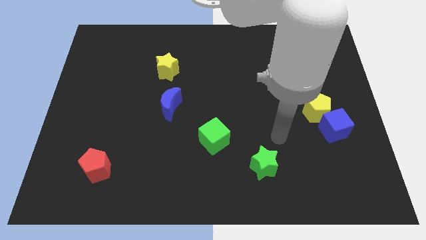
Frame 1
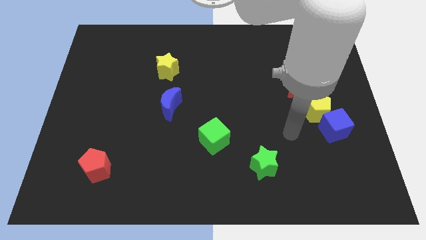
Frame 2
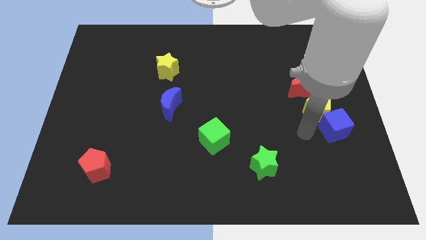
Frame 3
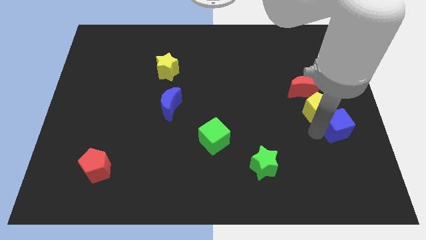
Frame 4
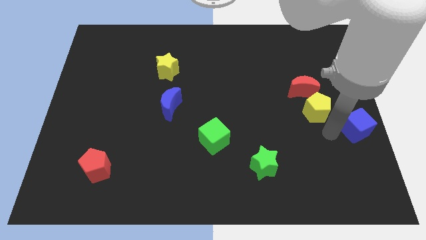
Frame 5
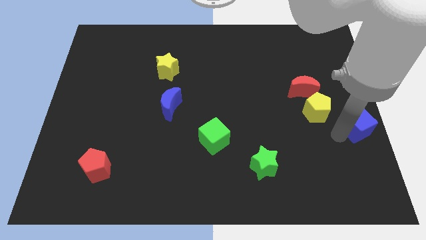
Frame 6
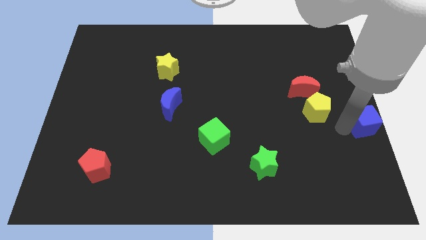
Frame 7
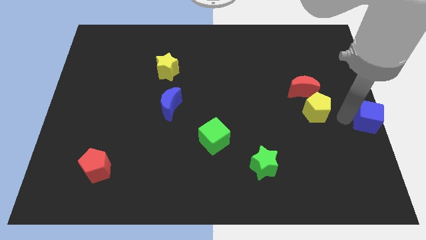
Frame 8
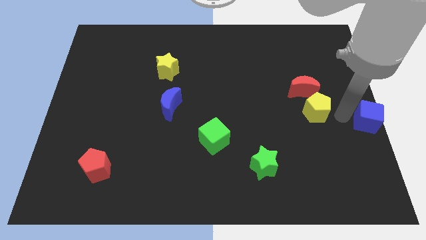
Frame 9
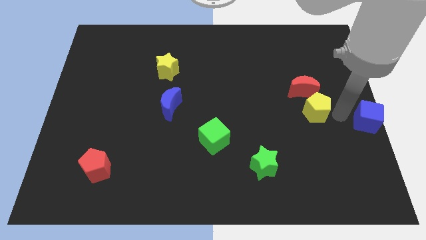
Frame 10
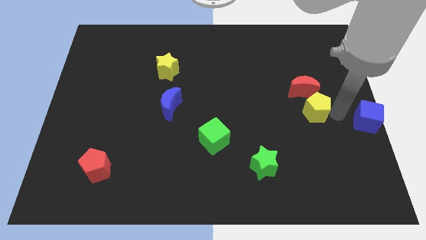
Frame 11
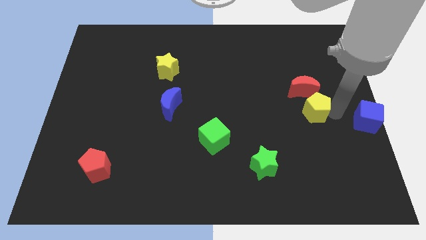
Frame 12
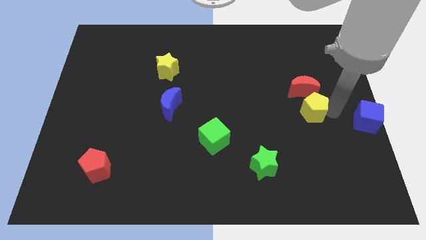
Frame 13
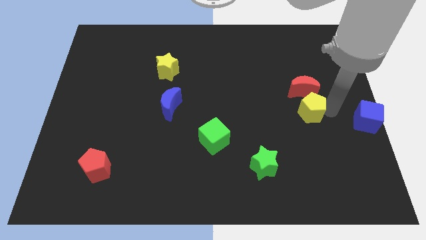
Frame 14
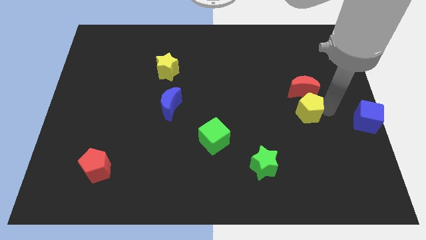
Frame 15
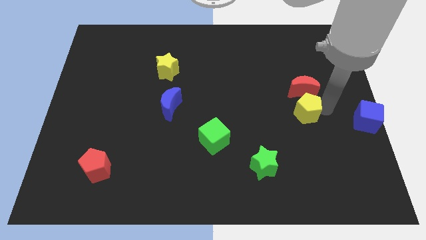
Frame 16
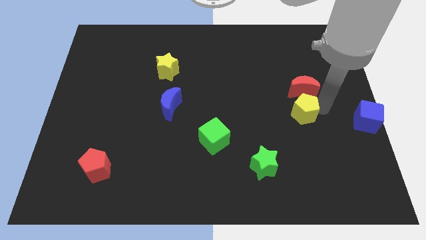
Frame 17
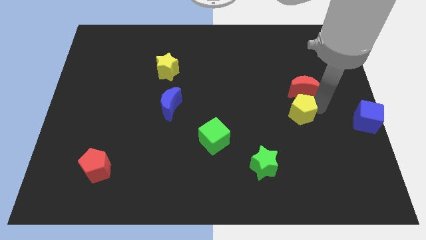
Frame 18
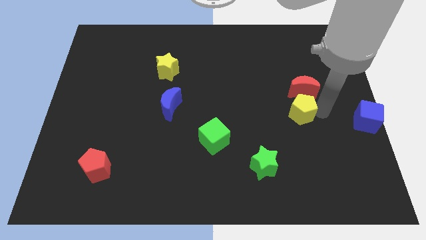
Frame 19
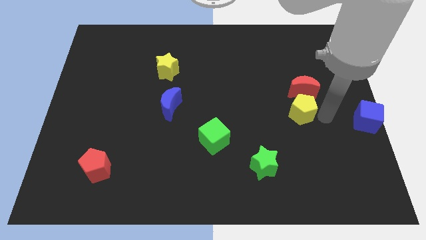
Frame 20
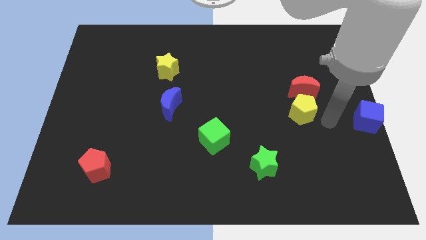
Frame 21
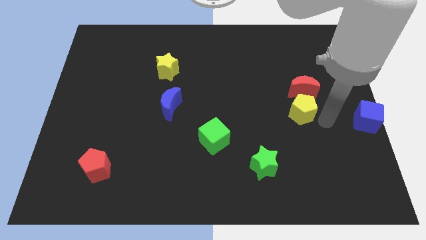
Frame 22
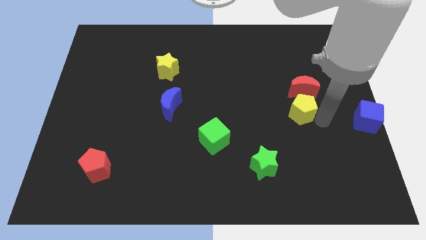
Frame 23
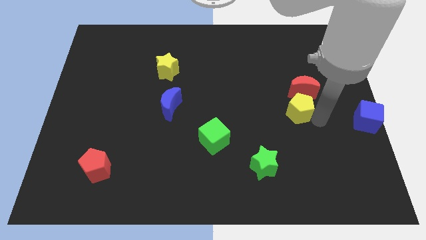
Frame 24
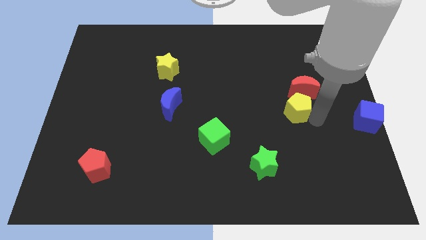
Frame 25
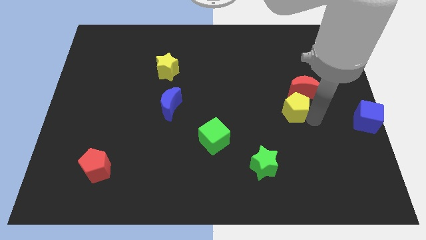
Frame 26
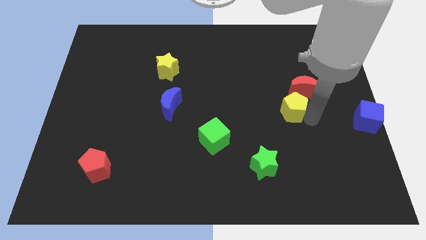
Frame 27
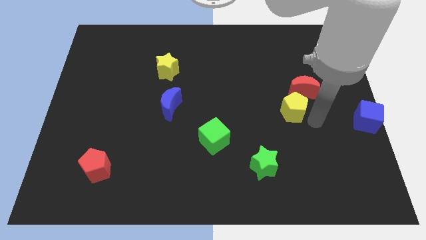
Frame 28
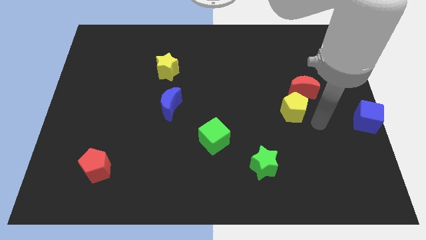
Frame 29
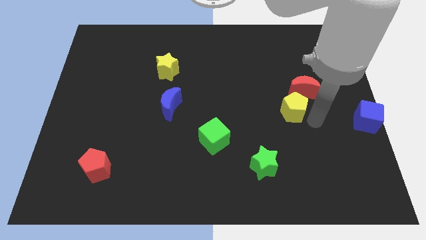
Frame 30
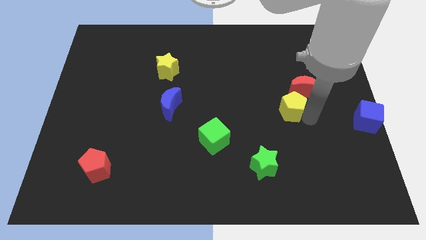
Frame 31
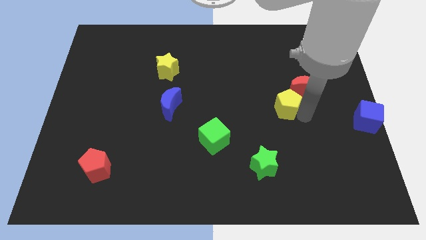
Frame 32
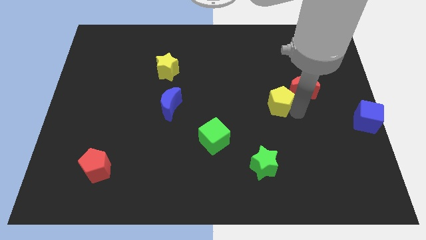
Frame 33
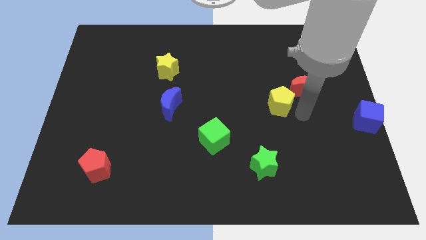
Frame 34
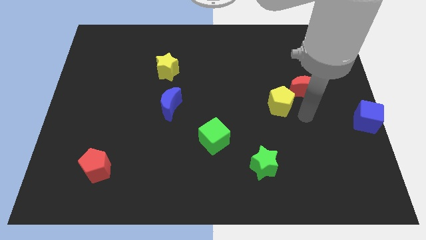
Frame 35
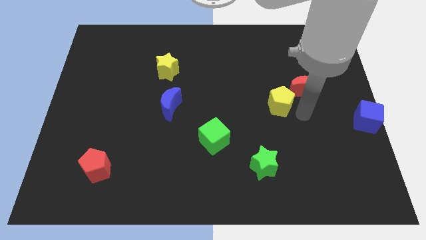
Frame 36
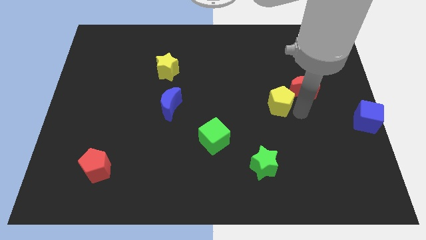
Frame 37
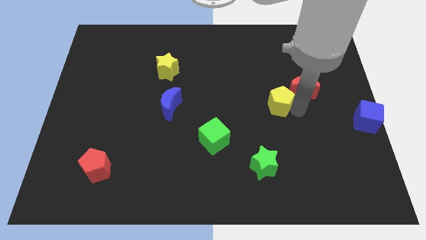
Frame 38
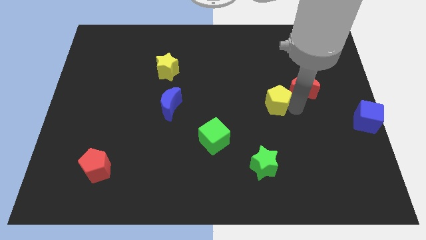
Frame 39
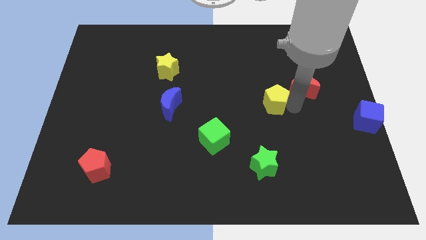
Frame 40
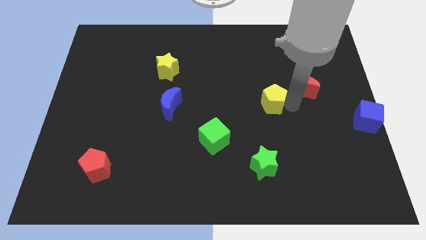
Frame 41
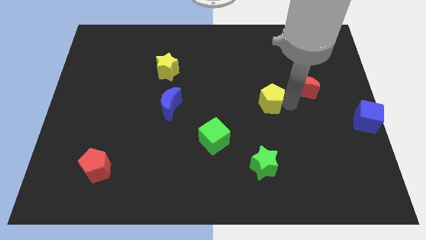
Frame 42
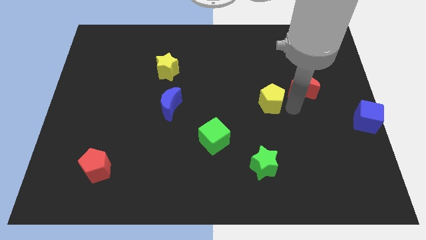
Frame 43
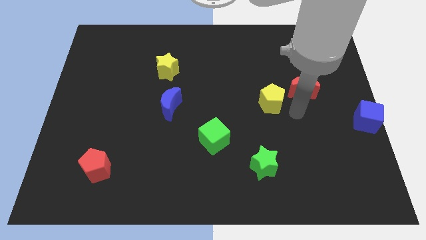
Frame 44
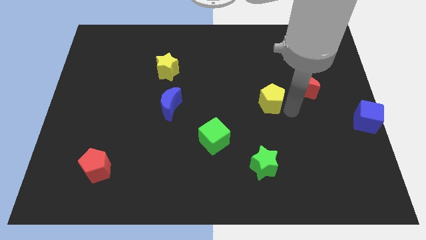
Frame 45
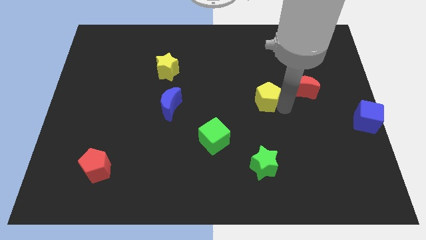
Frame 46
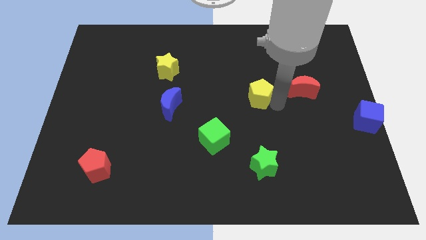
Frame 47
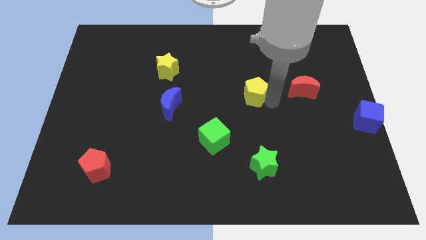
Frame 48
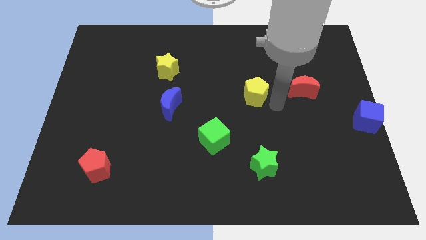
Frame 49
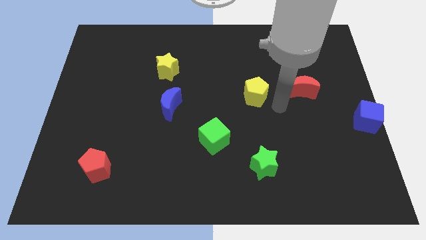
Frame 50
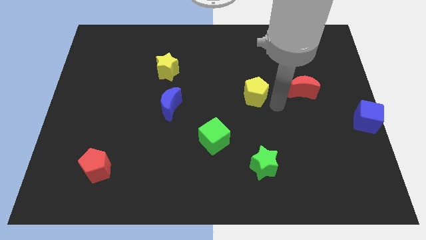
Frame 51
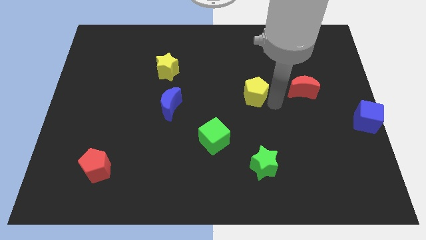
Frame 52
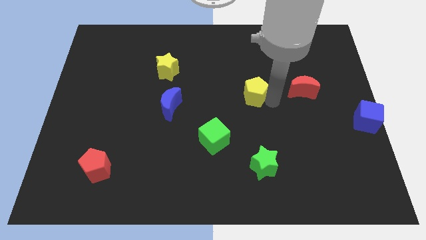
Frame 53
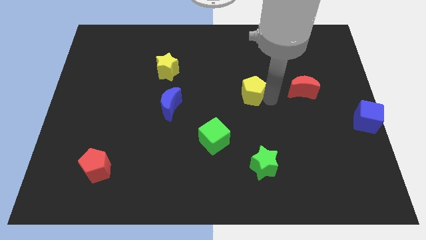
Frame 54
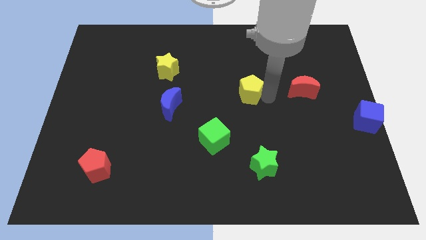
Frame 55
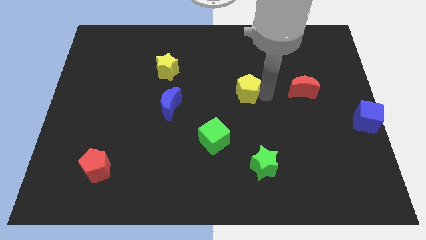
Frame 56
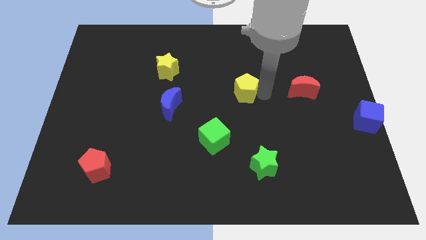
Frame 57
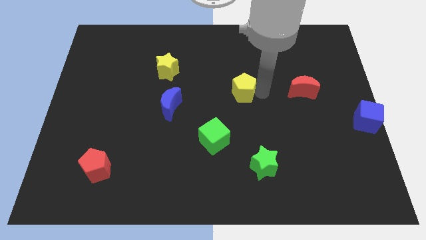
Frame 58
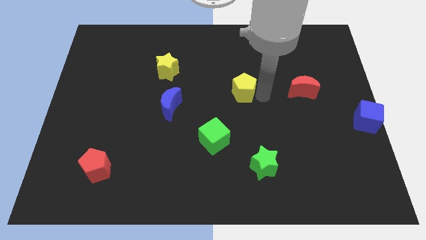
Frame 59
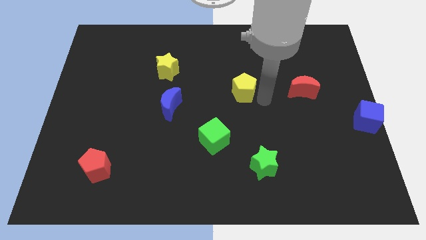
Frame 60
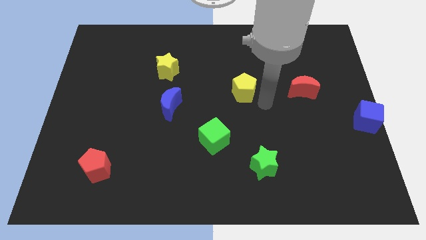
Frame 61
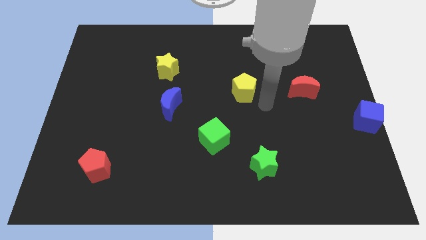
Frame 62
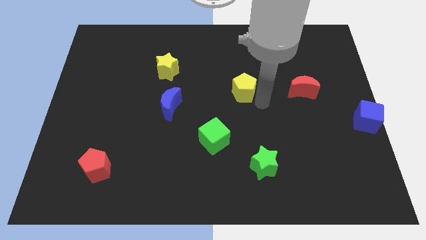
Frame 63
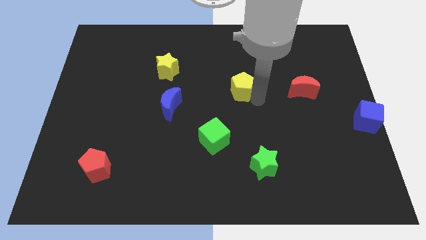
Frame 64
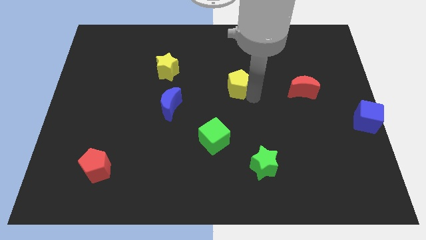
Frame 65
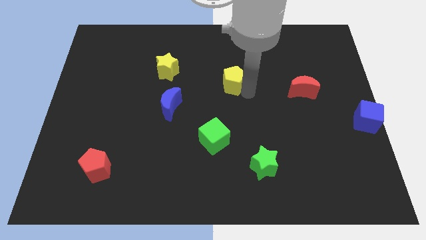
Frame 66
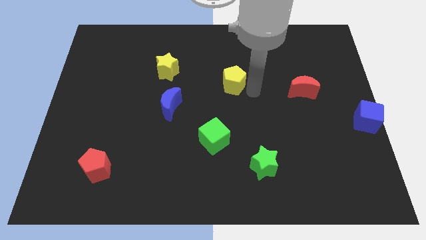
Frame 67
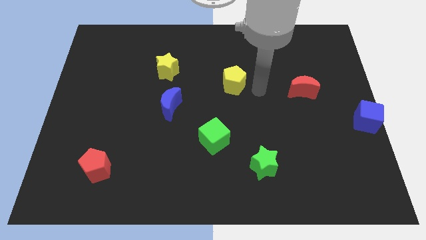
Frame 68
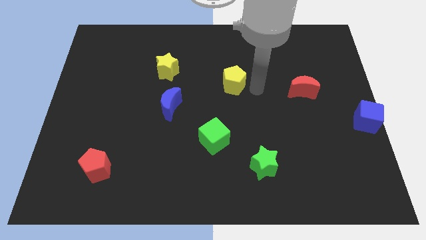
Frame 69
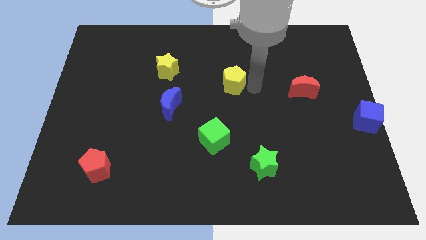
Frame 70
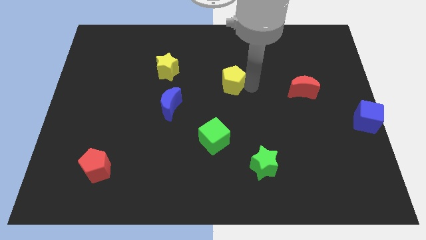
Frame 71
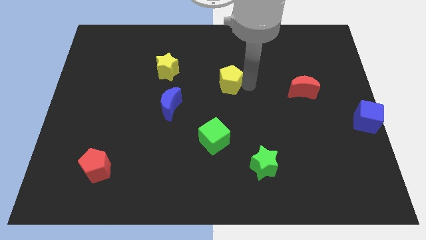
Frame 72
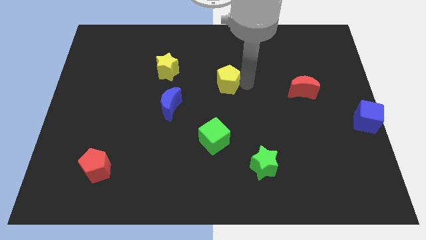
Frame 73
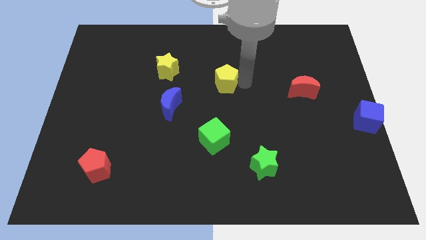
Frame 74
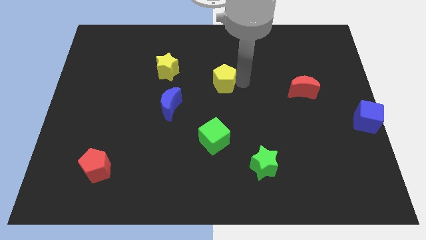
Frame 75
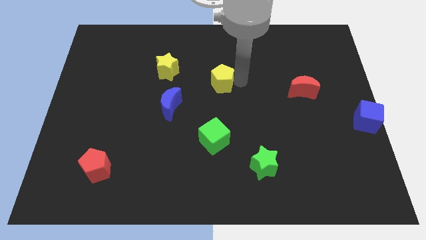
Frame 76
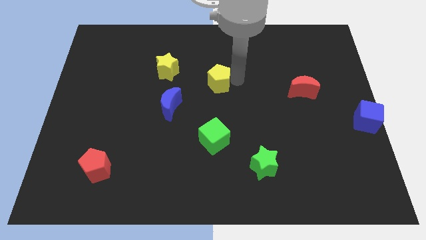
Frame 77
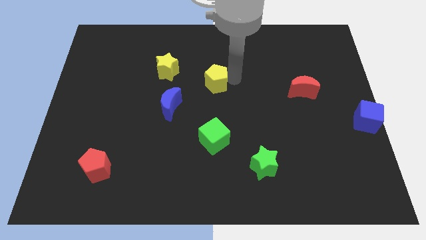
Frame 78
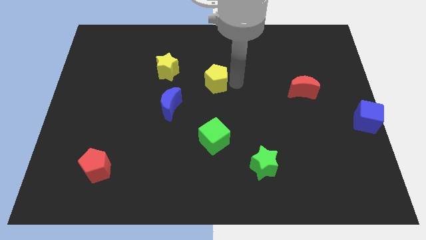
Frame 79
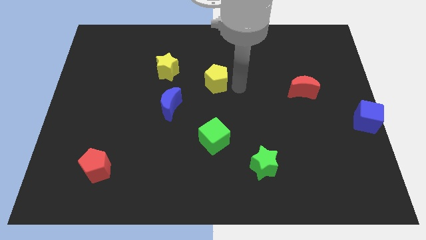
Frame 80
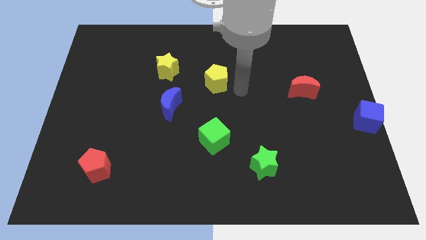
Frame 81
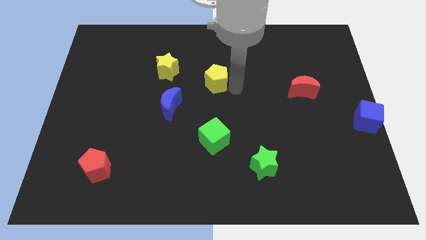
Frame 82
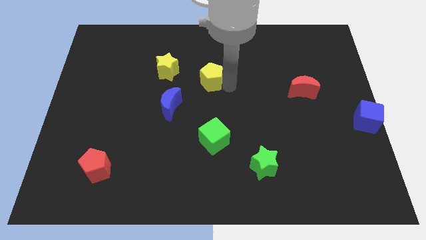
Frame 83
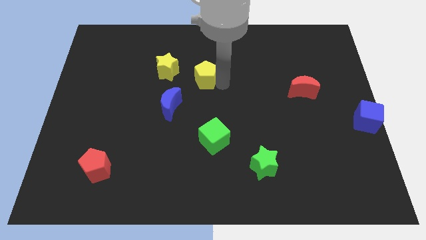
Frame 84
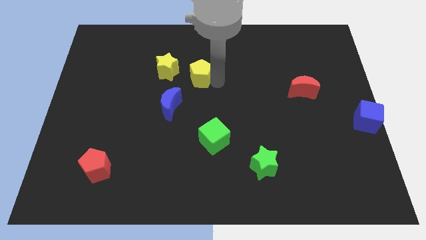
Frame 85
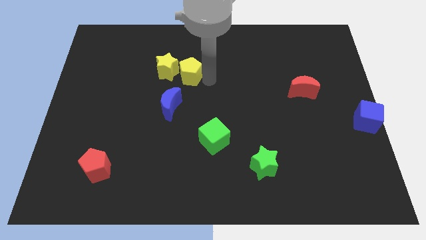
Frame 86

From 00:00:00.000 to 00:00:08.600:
push the yellow pentagon to the top side of the blue moon
